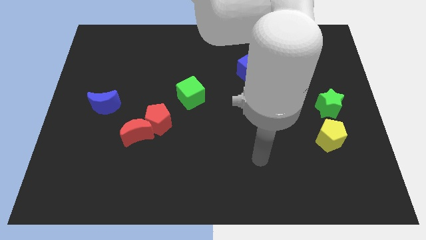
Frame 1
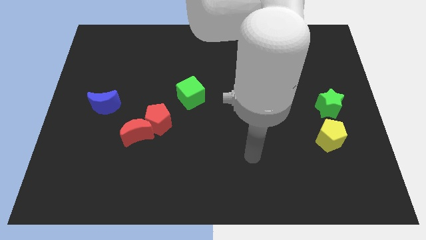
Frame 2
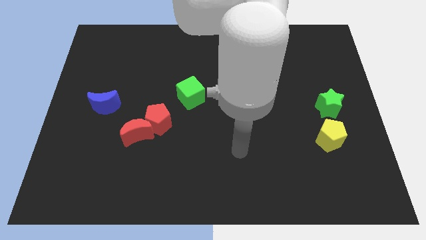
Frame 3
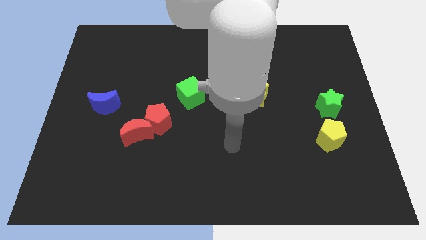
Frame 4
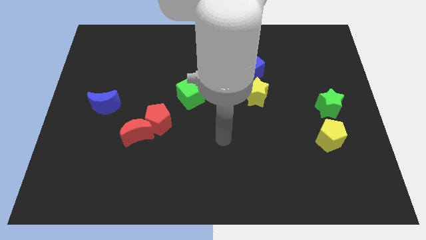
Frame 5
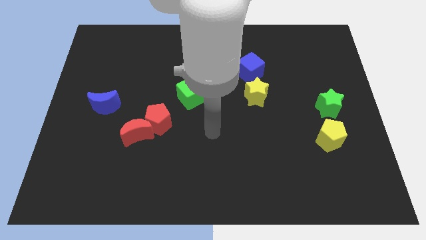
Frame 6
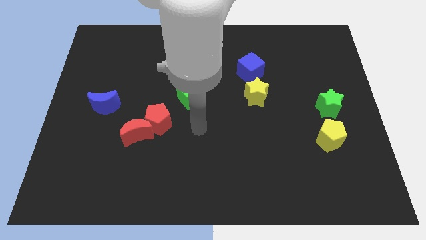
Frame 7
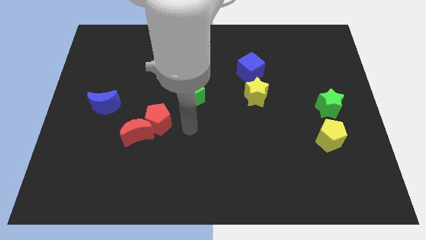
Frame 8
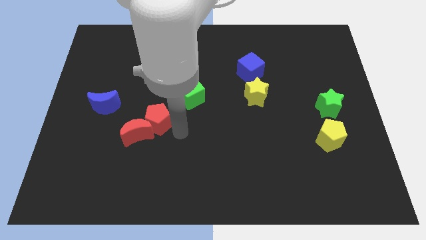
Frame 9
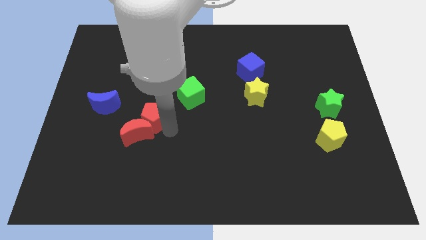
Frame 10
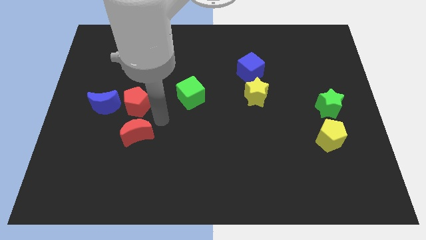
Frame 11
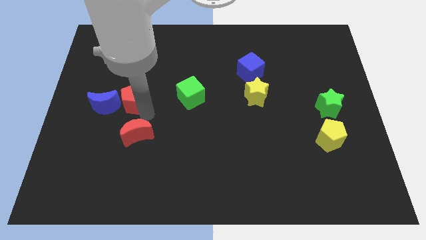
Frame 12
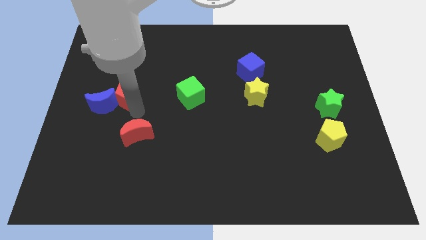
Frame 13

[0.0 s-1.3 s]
separate the red moon from the red pentagon

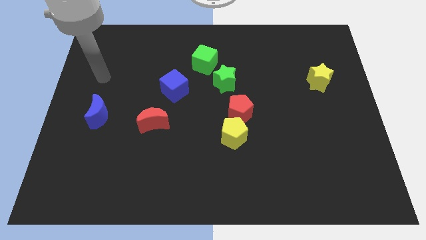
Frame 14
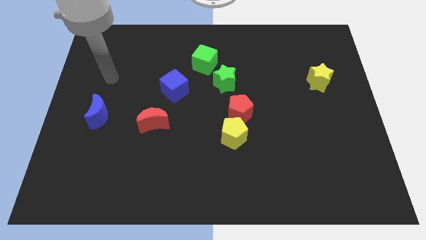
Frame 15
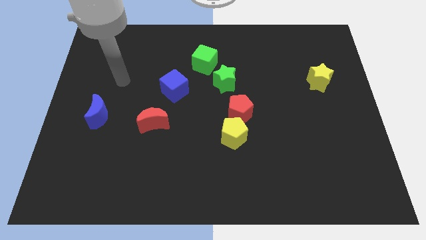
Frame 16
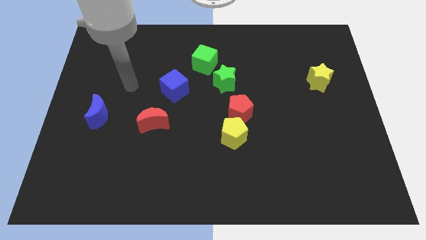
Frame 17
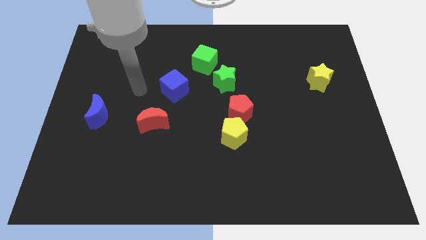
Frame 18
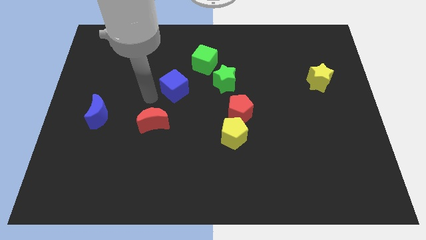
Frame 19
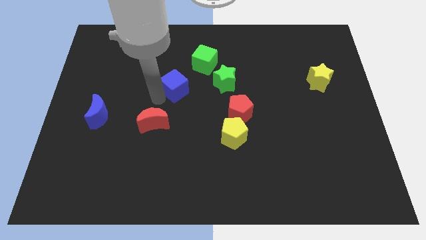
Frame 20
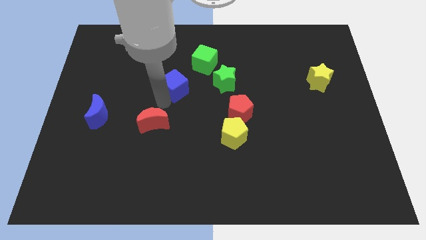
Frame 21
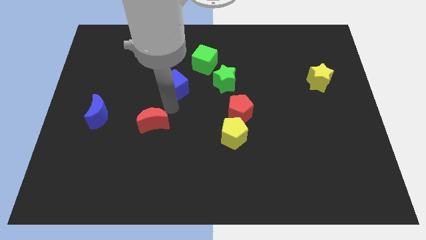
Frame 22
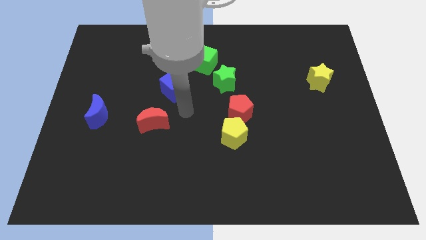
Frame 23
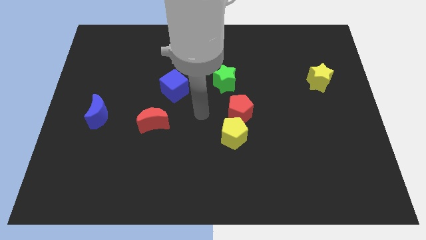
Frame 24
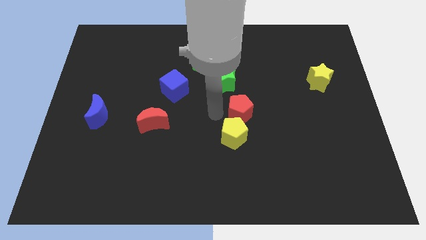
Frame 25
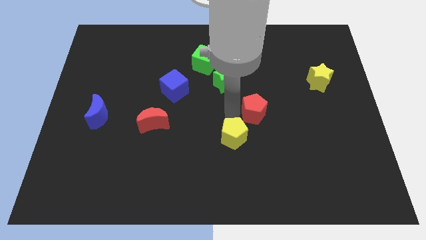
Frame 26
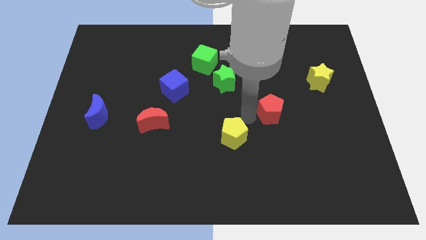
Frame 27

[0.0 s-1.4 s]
pull the yellow pentagon apart from the red pentagon

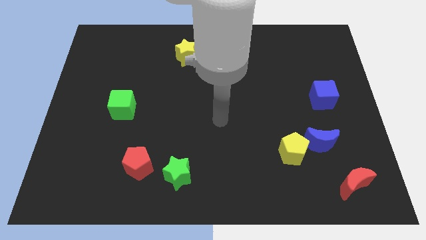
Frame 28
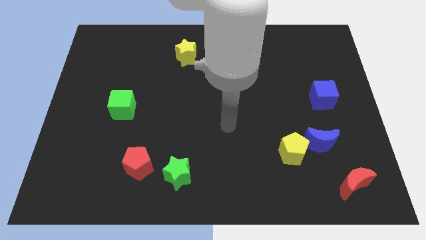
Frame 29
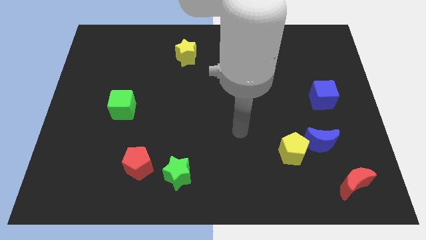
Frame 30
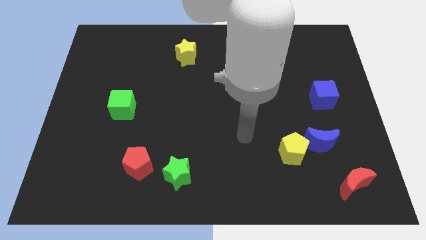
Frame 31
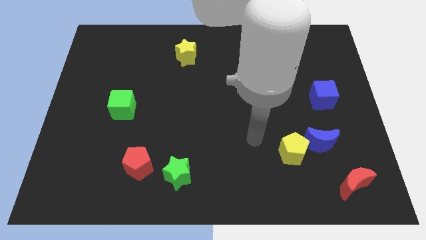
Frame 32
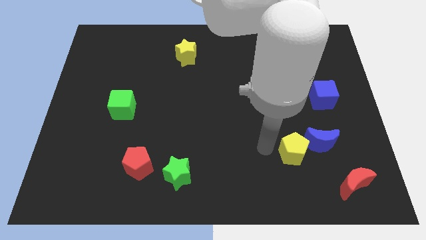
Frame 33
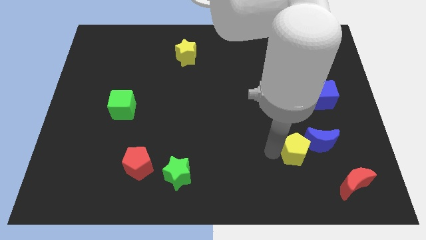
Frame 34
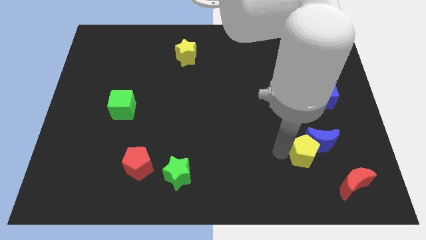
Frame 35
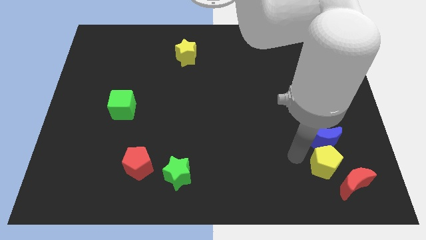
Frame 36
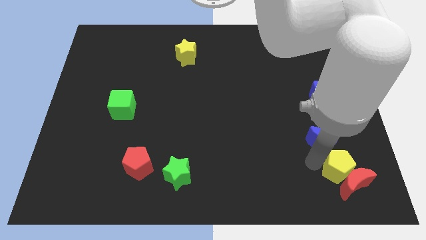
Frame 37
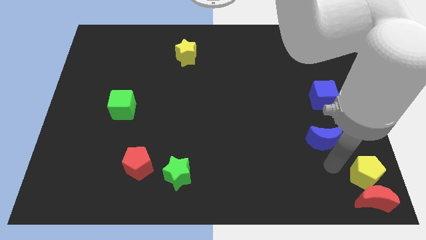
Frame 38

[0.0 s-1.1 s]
pull the blue moon apart from the yellow pentagon

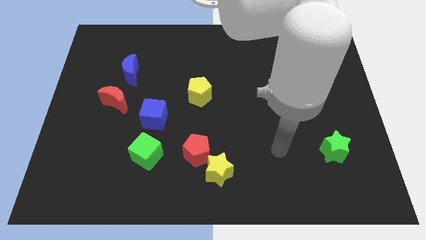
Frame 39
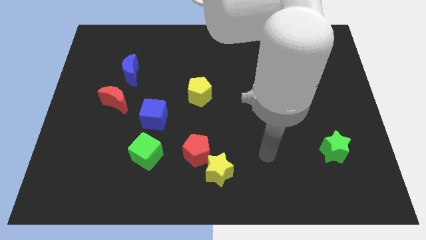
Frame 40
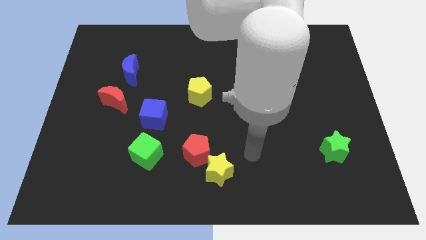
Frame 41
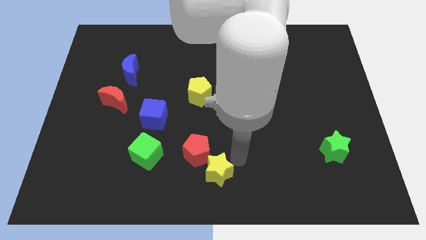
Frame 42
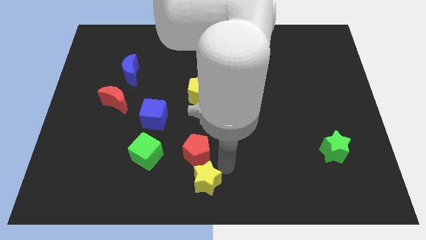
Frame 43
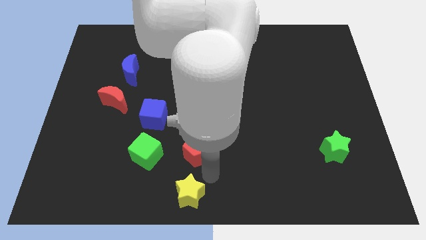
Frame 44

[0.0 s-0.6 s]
move the red pentagon away from the yellow star

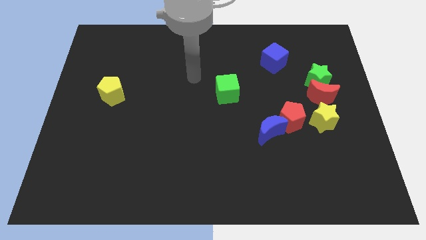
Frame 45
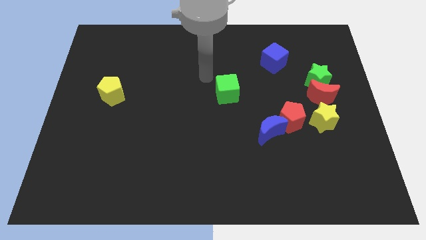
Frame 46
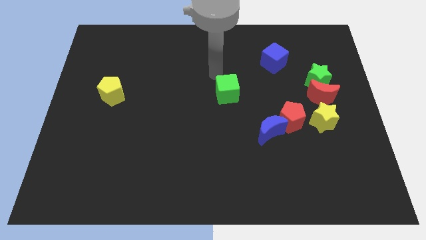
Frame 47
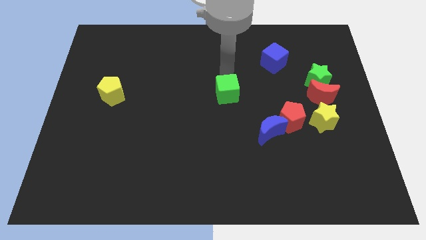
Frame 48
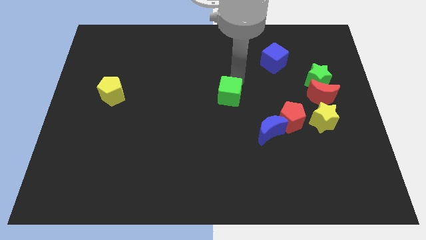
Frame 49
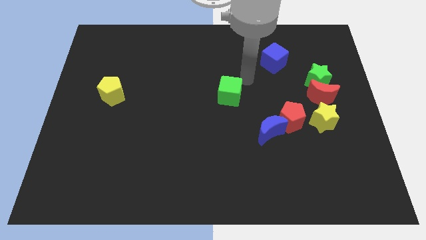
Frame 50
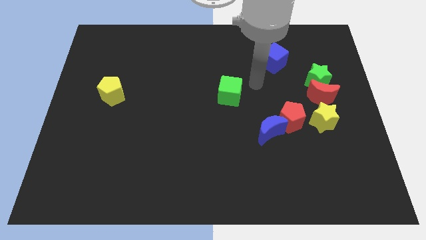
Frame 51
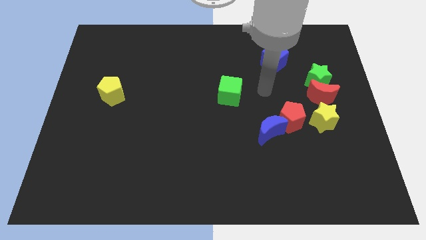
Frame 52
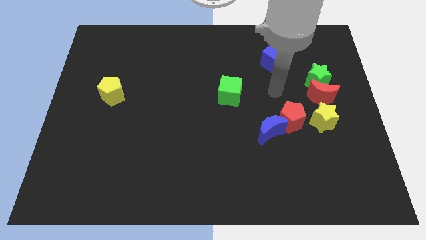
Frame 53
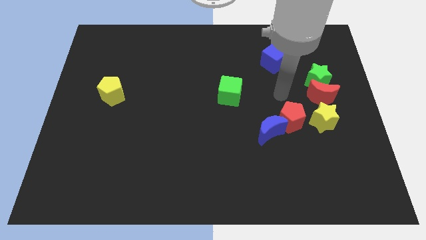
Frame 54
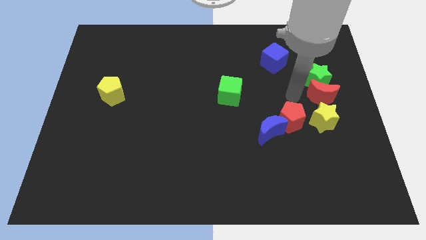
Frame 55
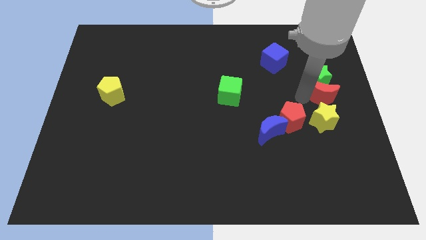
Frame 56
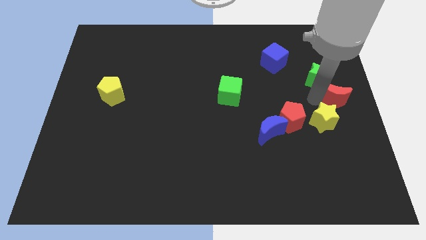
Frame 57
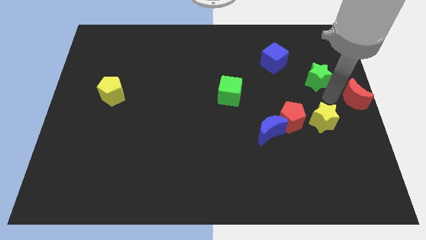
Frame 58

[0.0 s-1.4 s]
move the green star away from the red moon

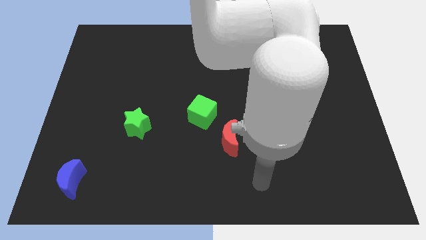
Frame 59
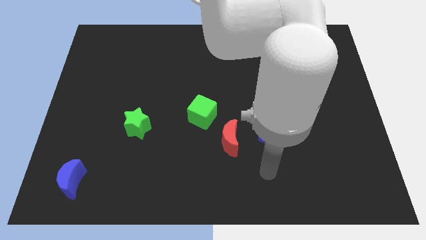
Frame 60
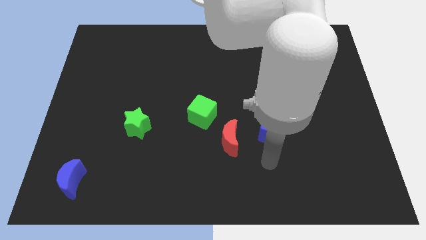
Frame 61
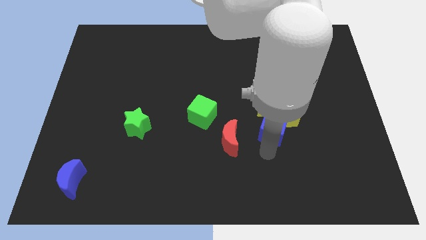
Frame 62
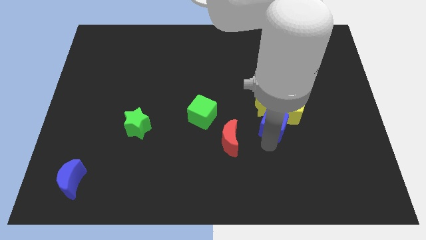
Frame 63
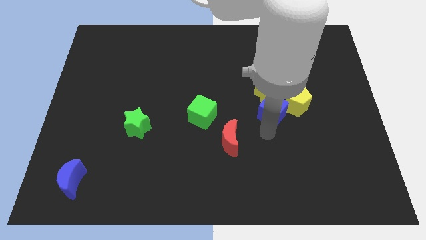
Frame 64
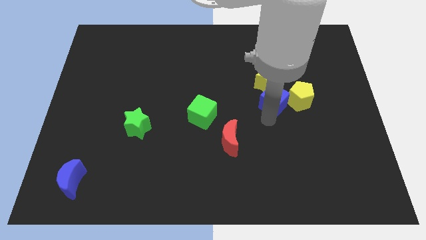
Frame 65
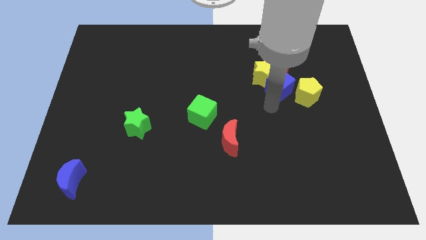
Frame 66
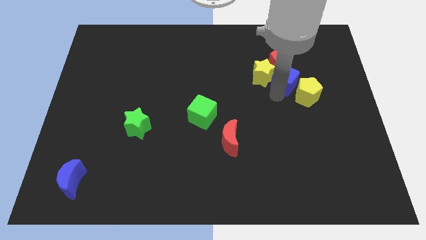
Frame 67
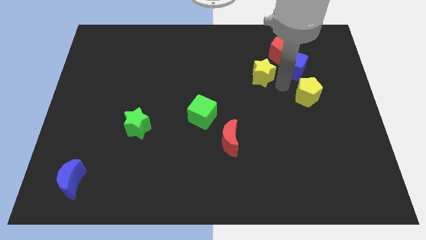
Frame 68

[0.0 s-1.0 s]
separate the yellow pentagon from the yellow star and blue cube

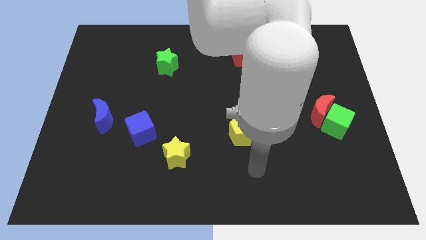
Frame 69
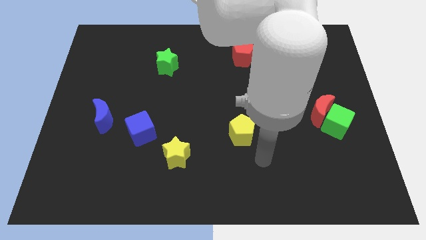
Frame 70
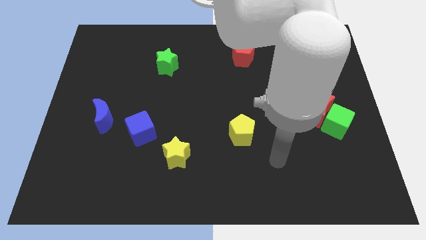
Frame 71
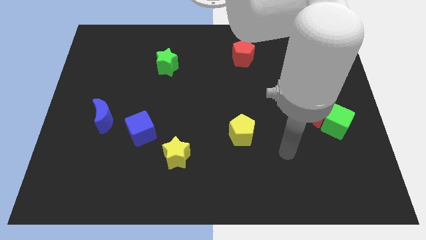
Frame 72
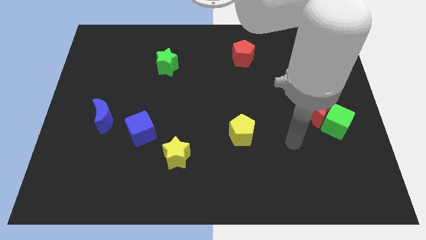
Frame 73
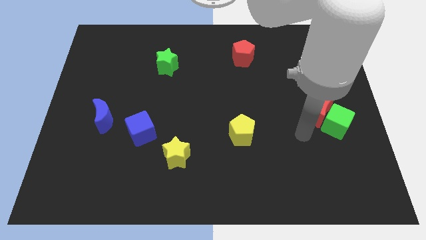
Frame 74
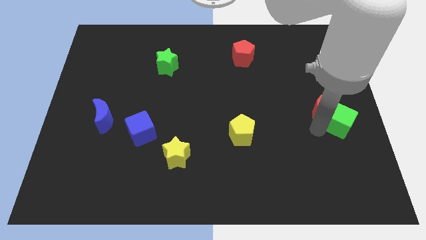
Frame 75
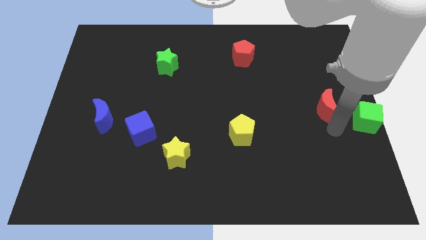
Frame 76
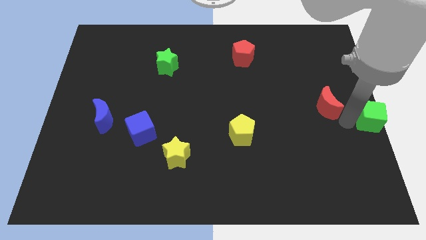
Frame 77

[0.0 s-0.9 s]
pull the red moon apart from the green cube

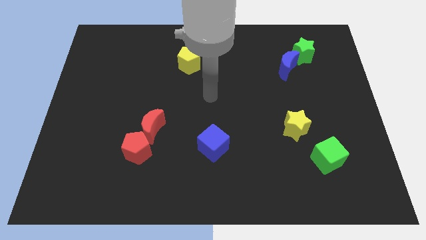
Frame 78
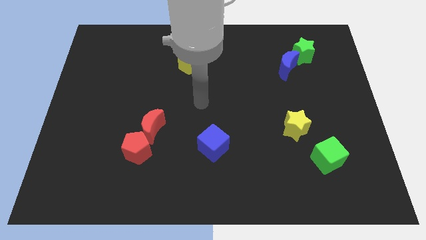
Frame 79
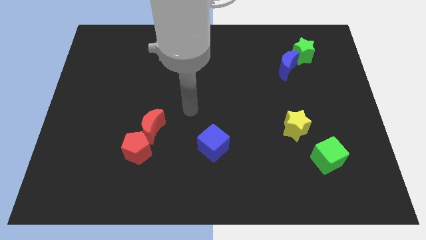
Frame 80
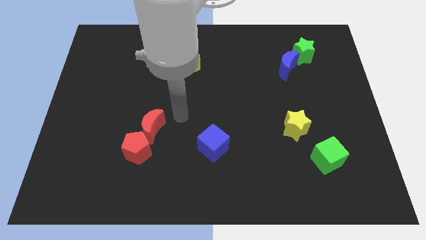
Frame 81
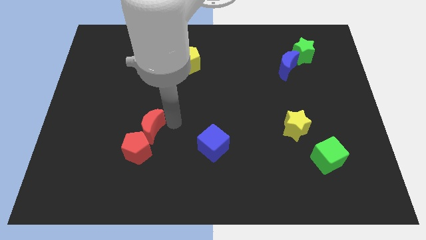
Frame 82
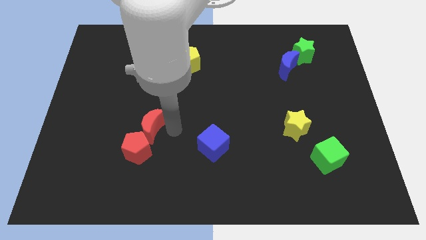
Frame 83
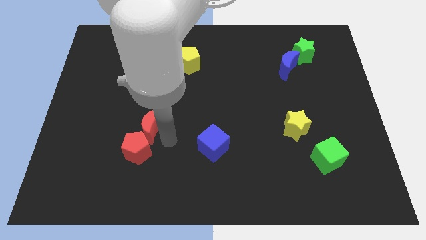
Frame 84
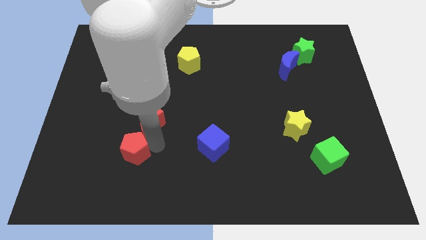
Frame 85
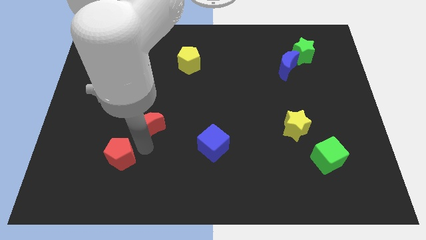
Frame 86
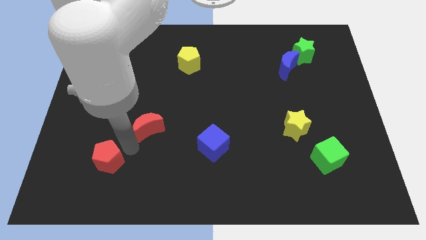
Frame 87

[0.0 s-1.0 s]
move the red moon away from the red pentagon

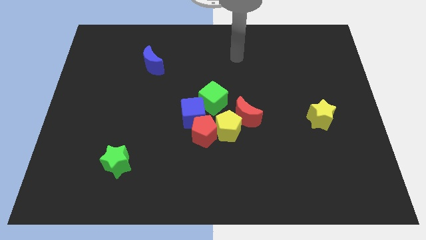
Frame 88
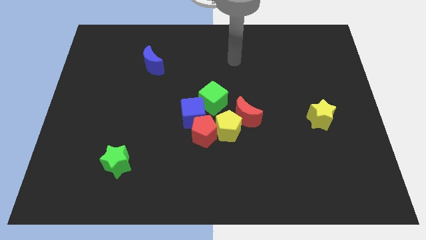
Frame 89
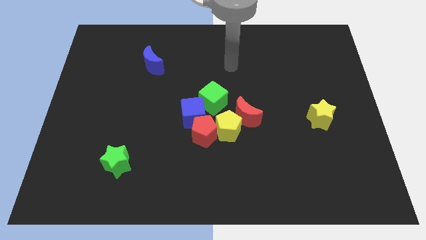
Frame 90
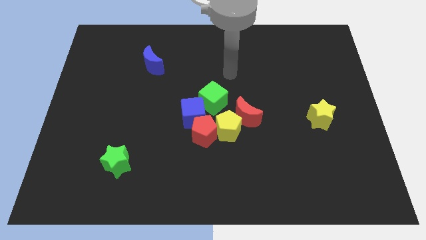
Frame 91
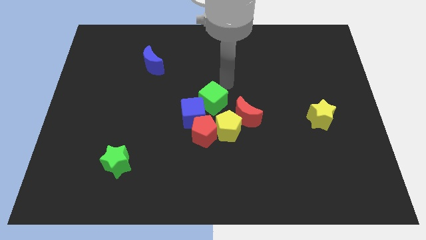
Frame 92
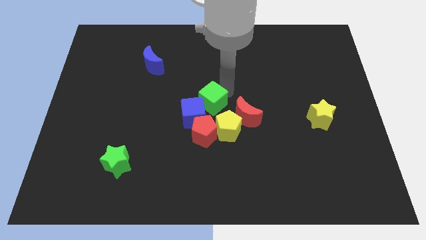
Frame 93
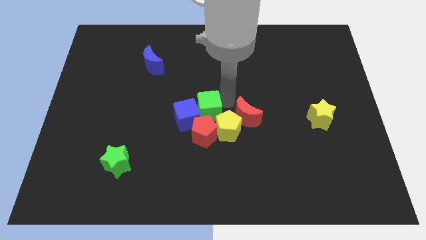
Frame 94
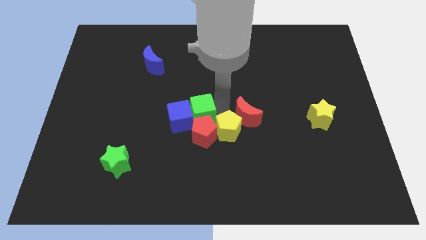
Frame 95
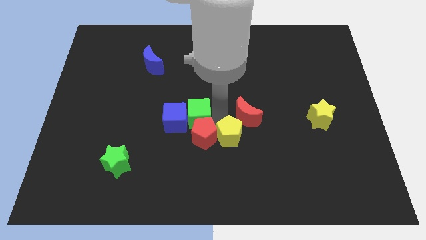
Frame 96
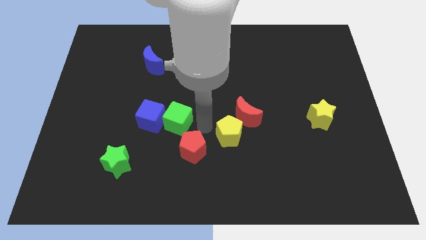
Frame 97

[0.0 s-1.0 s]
move the blue cube away from the red pentagon, green cube, and yellow pentagon
